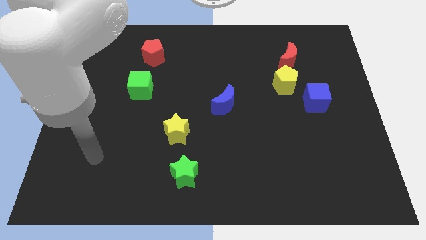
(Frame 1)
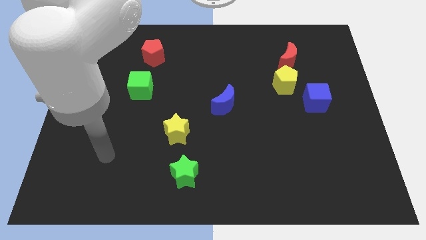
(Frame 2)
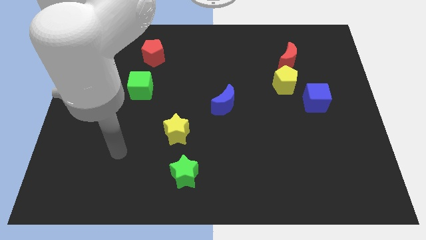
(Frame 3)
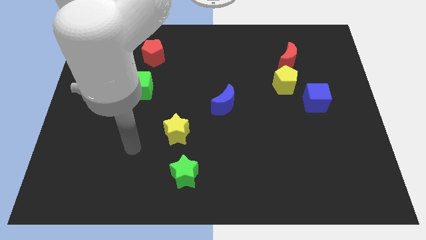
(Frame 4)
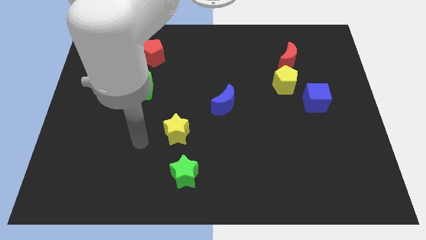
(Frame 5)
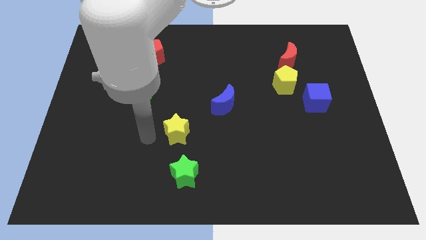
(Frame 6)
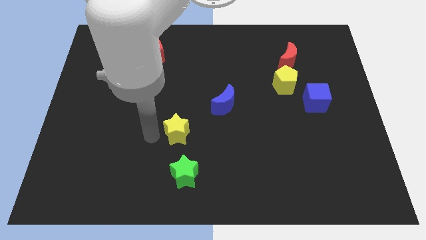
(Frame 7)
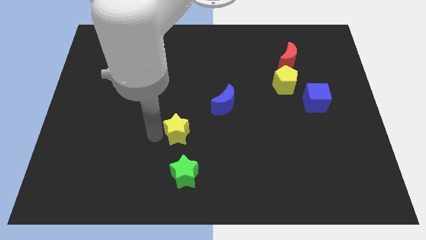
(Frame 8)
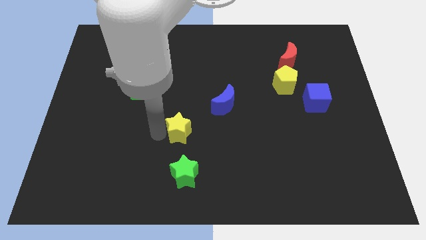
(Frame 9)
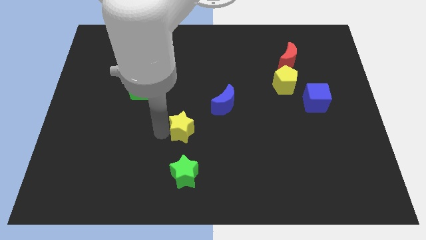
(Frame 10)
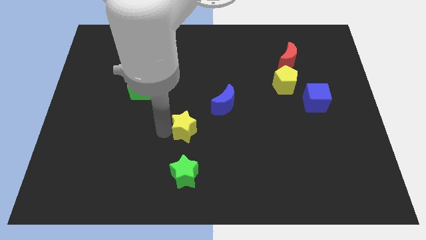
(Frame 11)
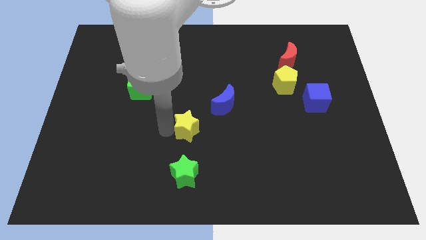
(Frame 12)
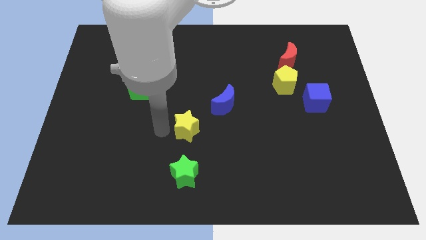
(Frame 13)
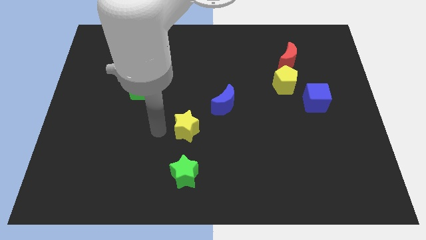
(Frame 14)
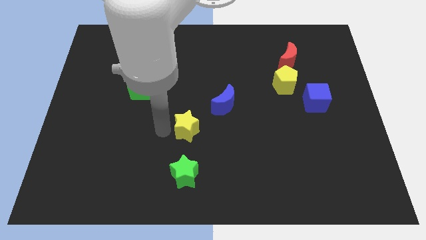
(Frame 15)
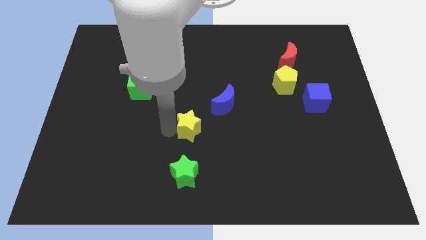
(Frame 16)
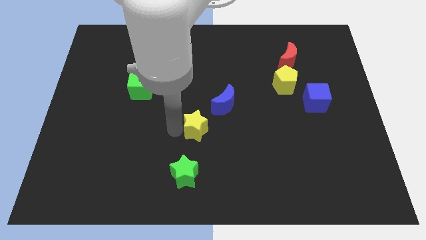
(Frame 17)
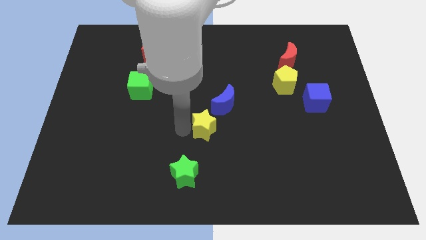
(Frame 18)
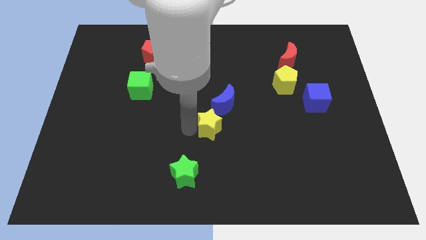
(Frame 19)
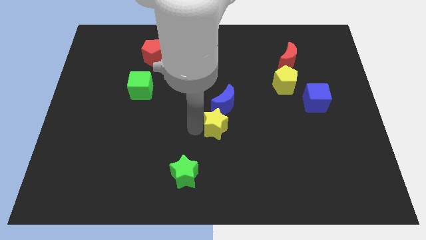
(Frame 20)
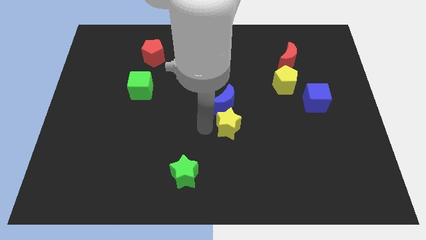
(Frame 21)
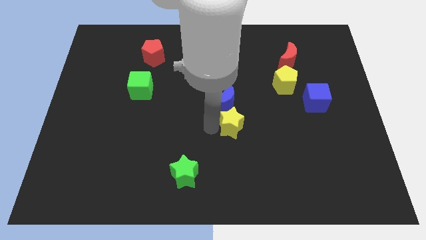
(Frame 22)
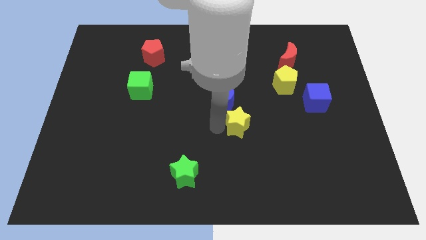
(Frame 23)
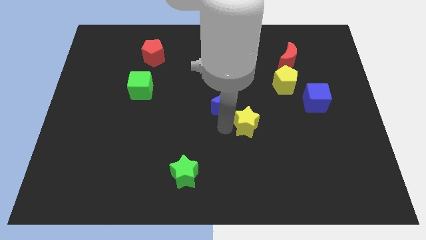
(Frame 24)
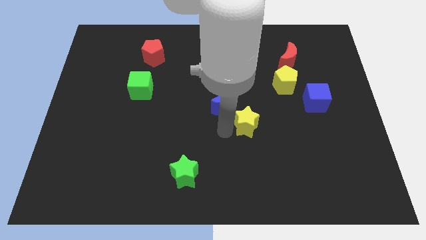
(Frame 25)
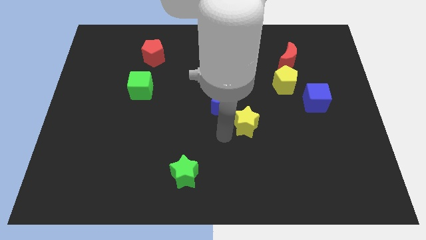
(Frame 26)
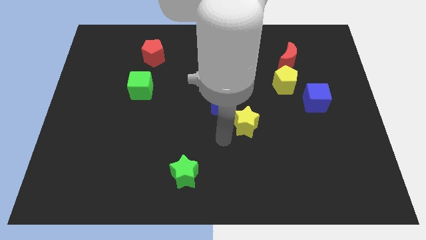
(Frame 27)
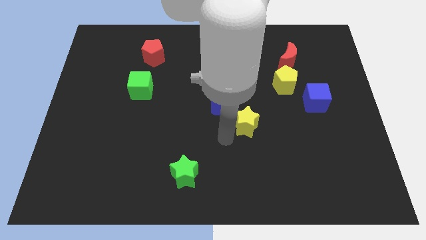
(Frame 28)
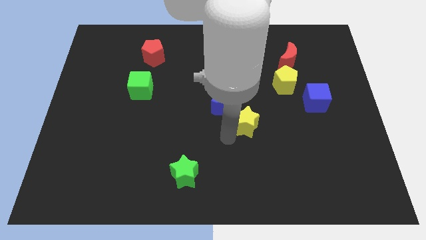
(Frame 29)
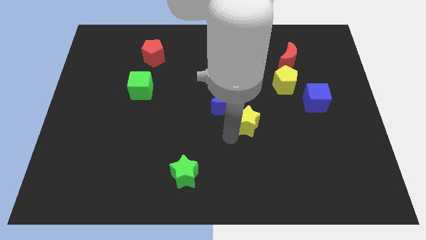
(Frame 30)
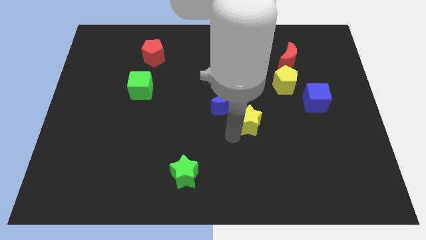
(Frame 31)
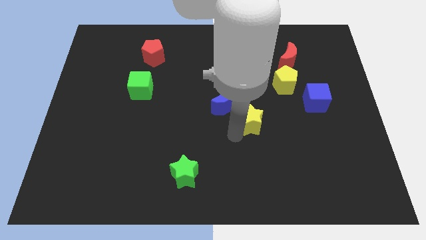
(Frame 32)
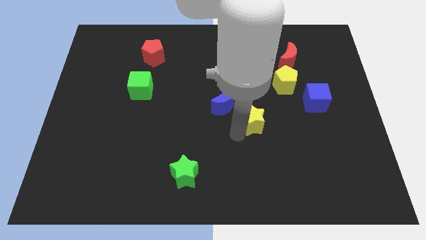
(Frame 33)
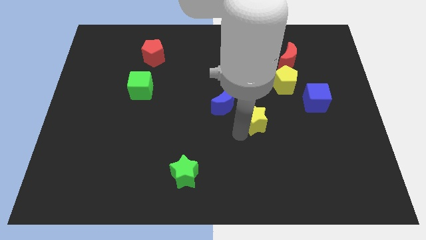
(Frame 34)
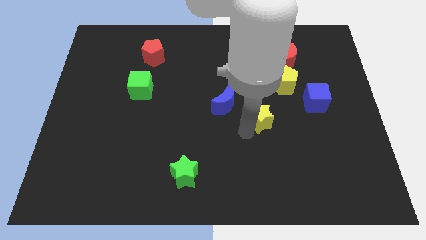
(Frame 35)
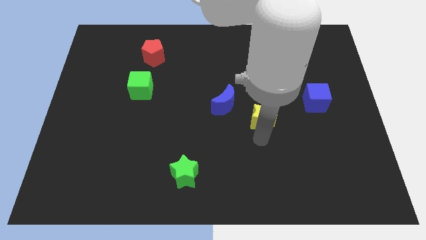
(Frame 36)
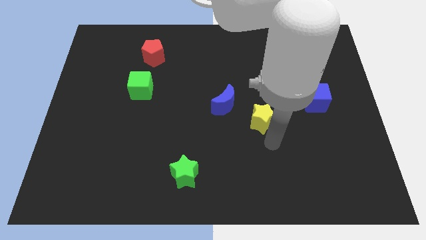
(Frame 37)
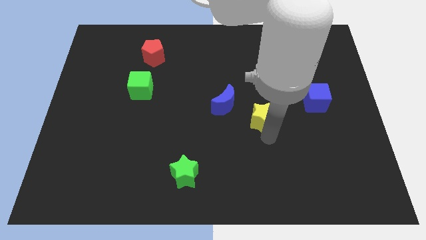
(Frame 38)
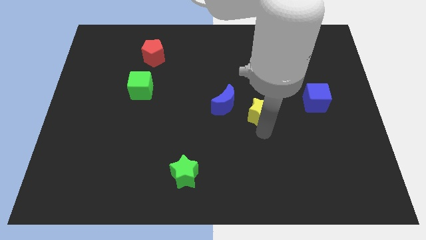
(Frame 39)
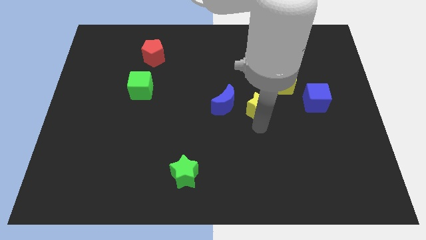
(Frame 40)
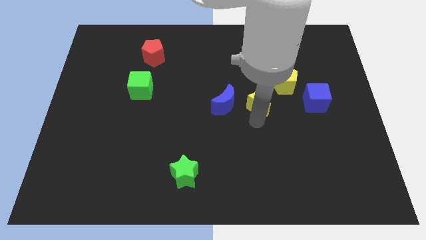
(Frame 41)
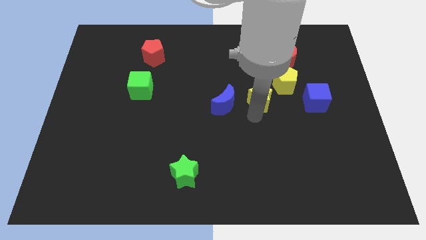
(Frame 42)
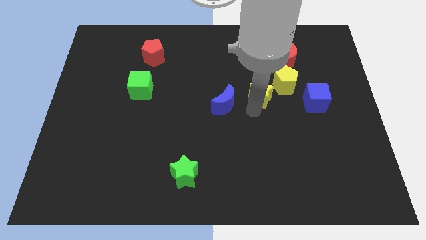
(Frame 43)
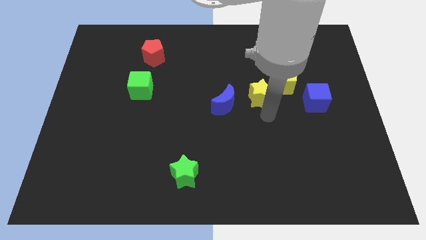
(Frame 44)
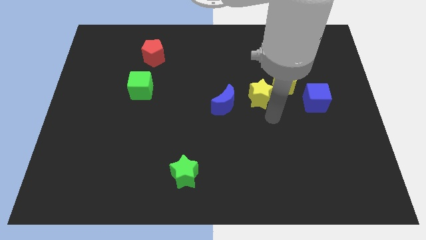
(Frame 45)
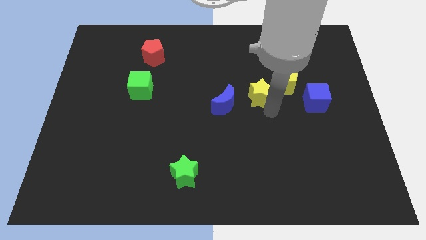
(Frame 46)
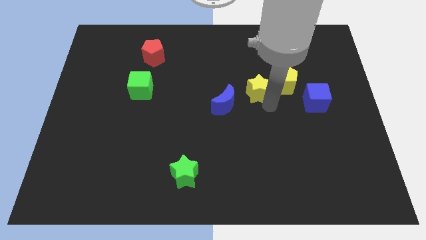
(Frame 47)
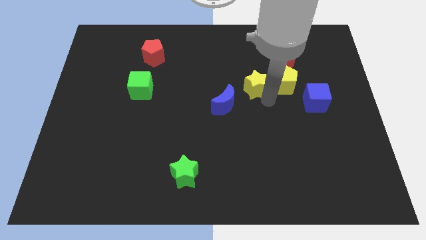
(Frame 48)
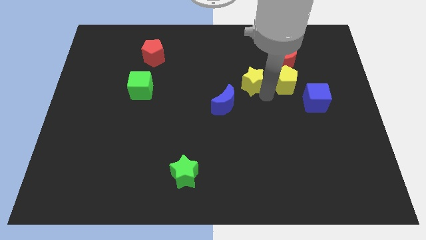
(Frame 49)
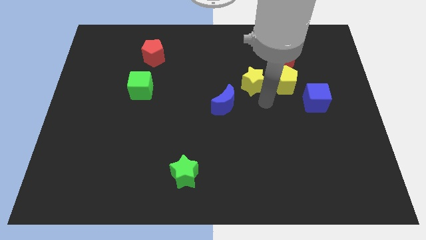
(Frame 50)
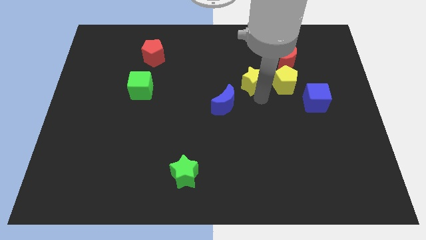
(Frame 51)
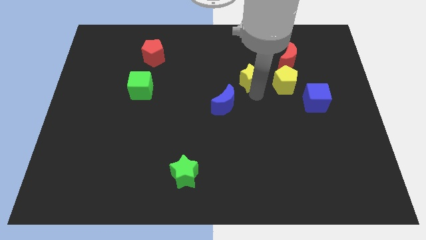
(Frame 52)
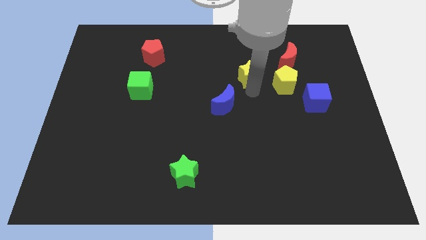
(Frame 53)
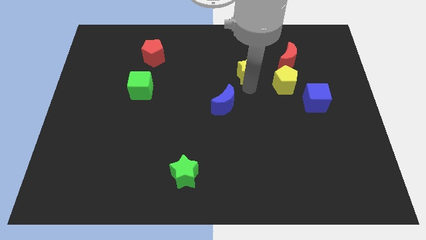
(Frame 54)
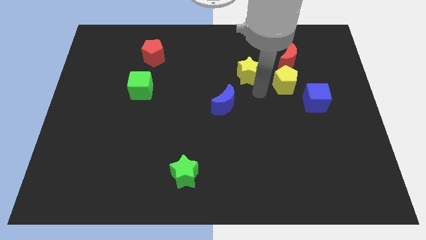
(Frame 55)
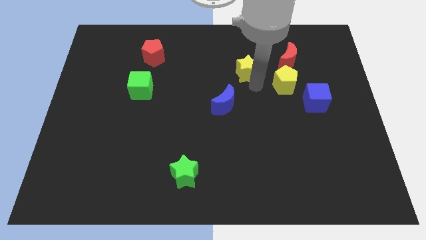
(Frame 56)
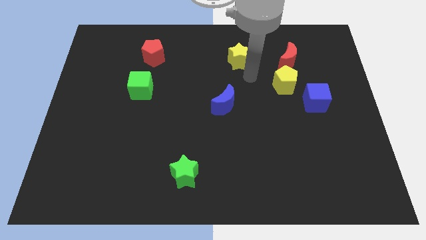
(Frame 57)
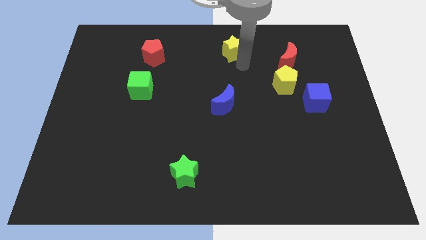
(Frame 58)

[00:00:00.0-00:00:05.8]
push the yellow star to the towards your base
